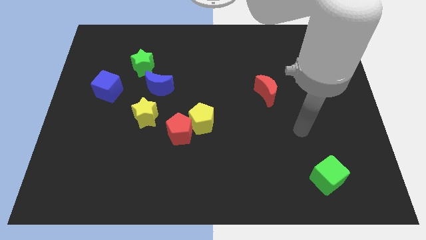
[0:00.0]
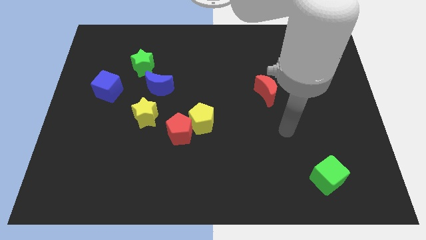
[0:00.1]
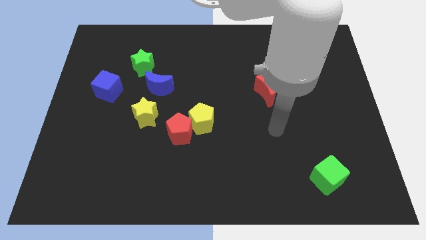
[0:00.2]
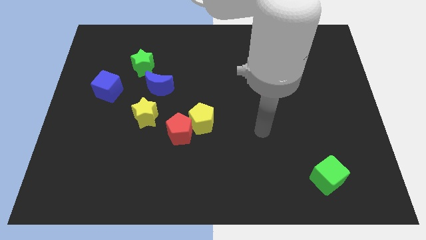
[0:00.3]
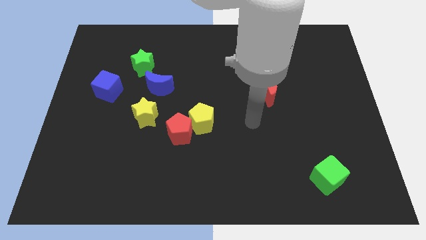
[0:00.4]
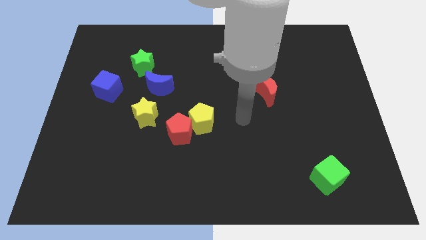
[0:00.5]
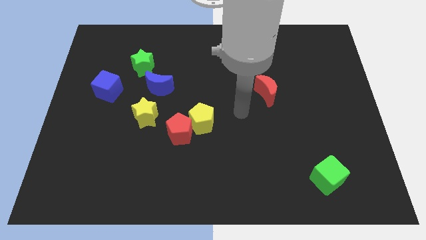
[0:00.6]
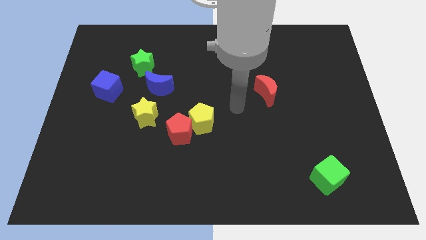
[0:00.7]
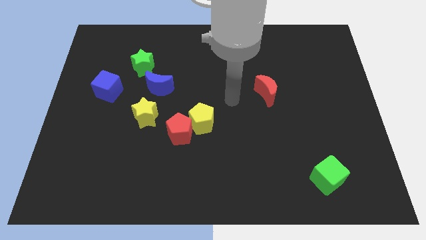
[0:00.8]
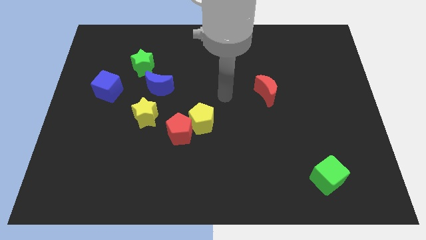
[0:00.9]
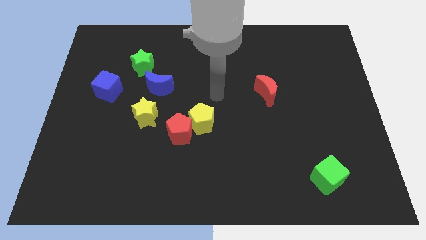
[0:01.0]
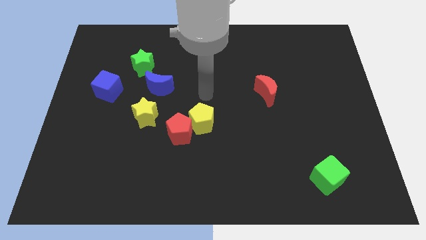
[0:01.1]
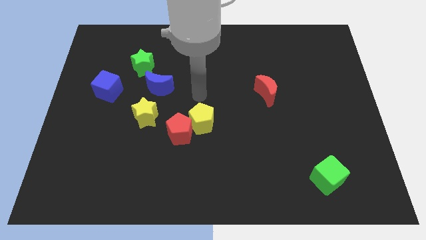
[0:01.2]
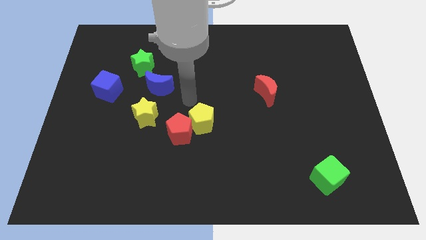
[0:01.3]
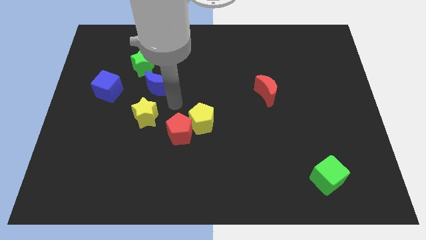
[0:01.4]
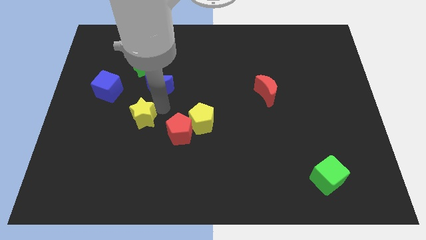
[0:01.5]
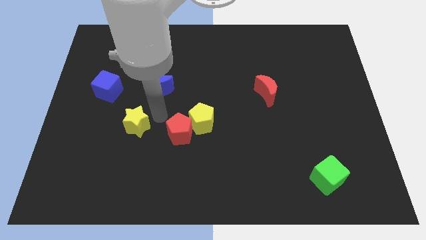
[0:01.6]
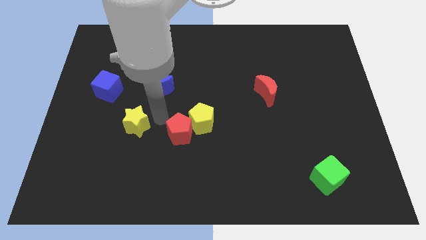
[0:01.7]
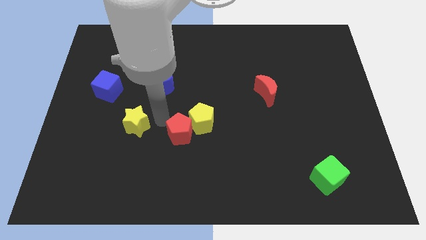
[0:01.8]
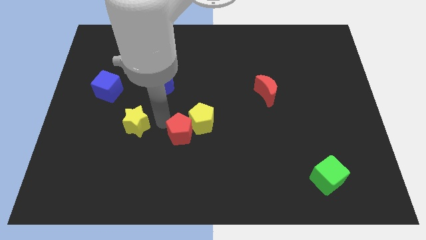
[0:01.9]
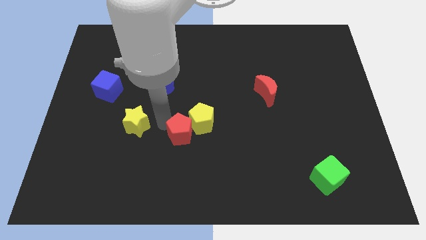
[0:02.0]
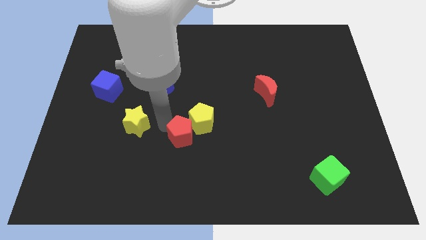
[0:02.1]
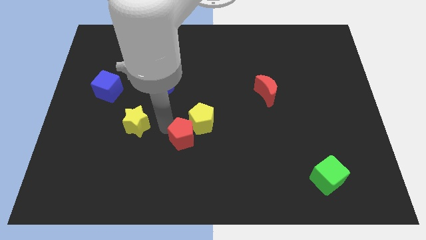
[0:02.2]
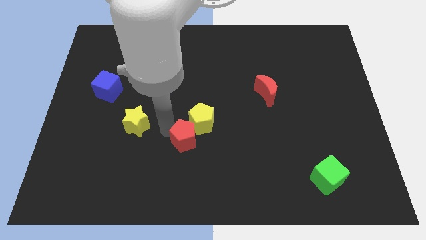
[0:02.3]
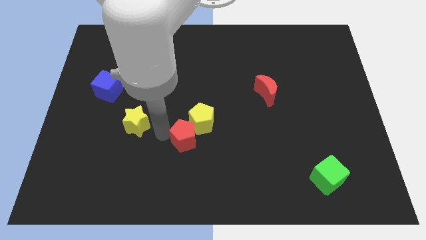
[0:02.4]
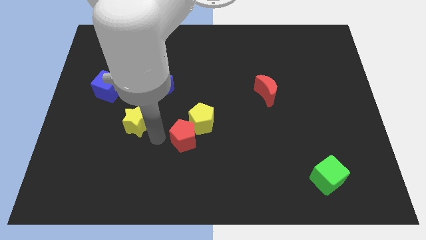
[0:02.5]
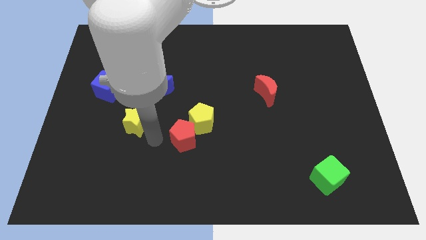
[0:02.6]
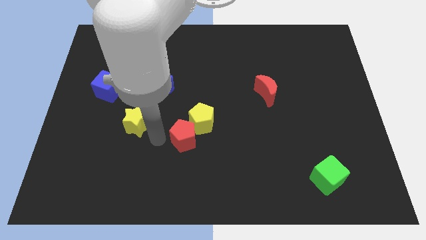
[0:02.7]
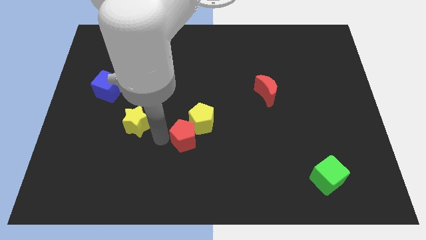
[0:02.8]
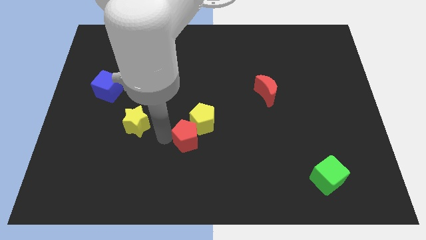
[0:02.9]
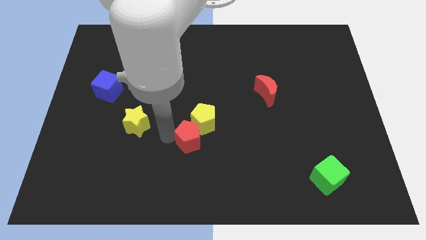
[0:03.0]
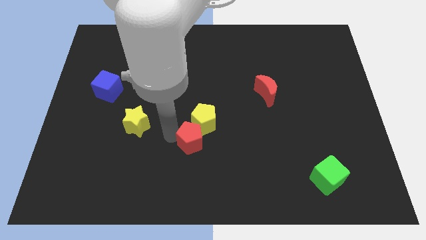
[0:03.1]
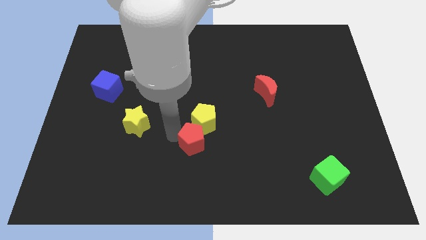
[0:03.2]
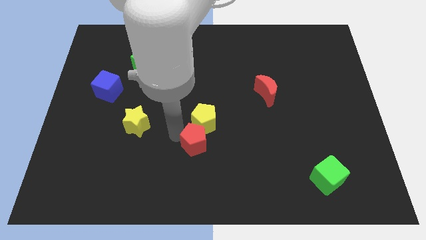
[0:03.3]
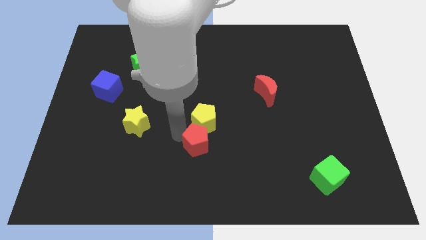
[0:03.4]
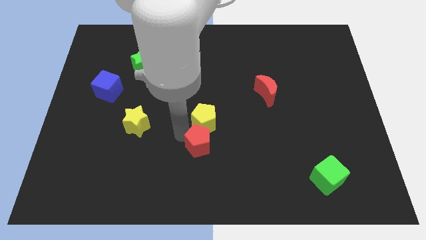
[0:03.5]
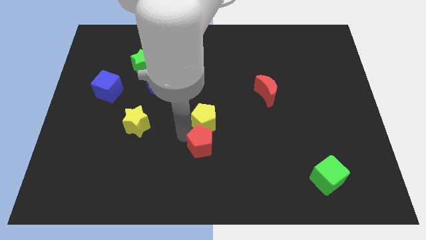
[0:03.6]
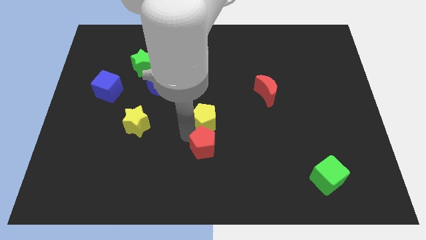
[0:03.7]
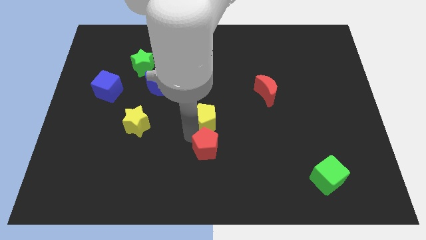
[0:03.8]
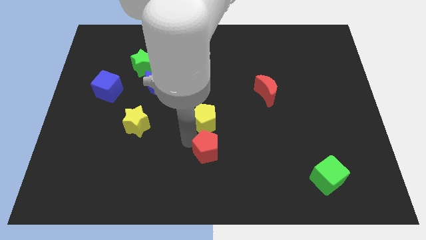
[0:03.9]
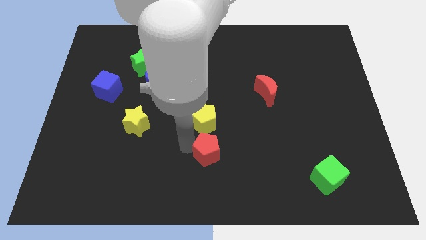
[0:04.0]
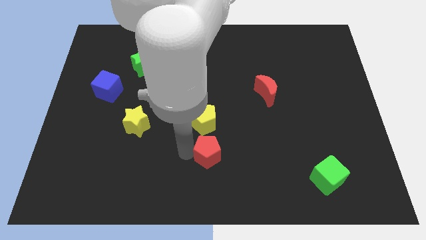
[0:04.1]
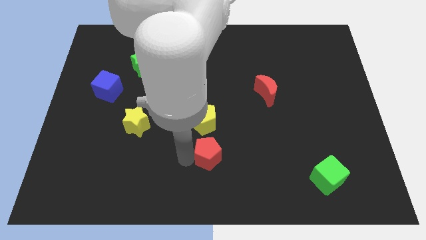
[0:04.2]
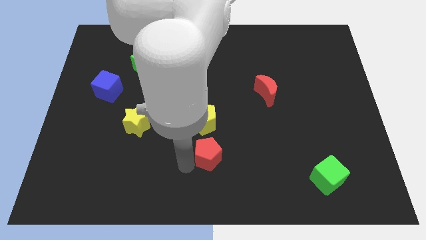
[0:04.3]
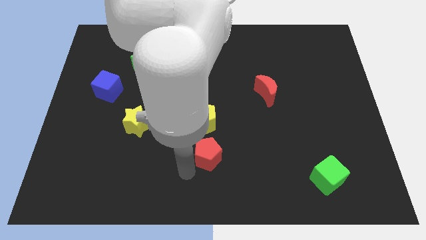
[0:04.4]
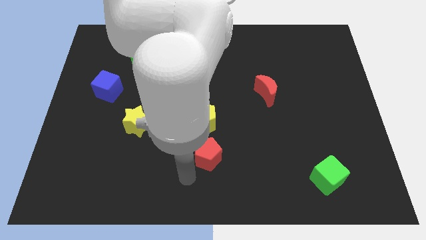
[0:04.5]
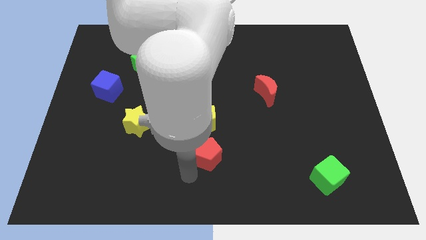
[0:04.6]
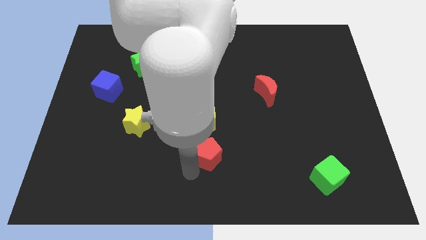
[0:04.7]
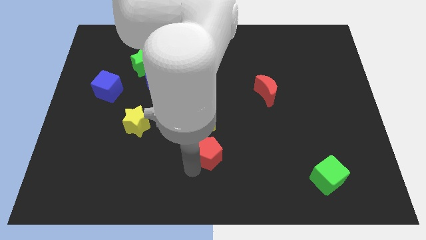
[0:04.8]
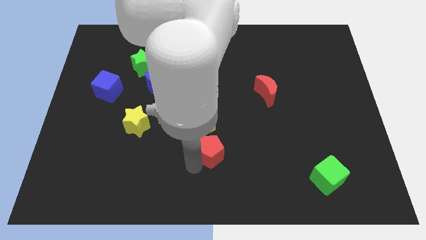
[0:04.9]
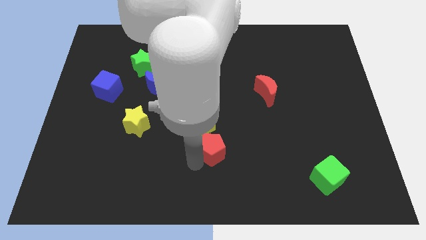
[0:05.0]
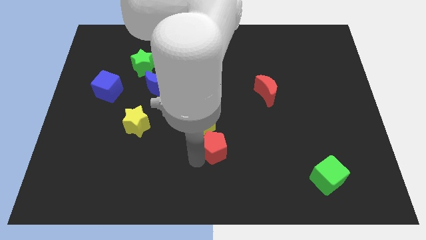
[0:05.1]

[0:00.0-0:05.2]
slightly slide the red pentagon right

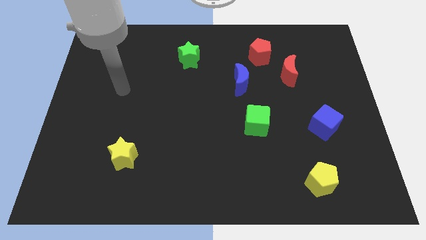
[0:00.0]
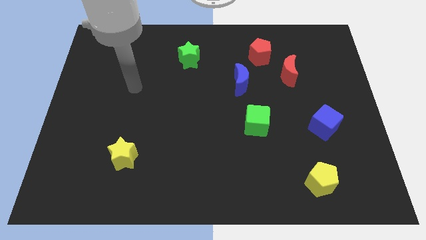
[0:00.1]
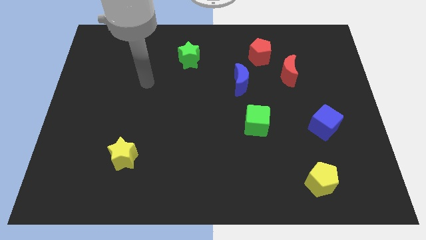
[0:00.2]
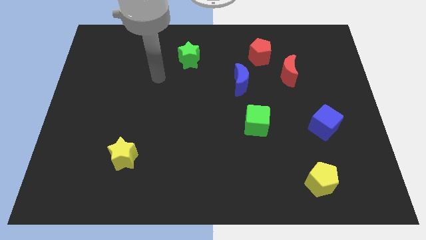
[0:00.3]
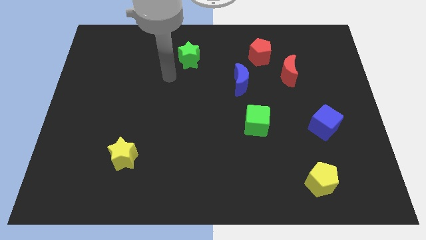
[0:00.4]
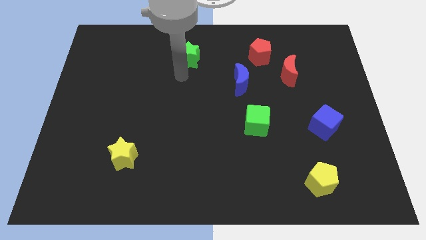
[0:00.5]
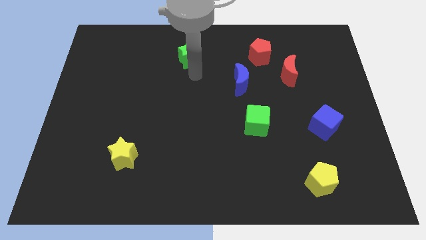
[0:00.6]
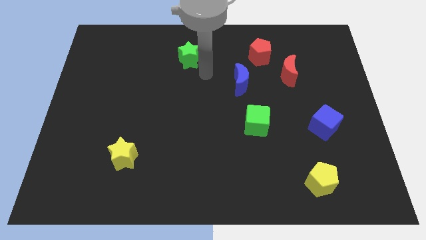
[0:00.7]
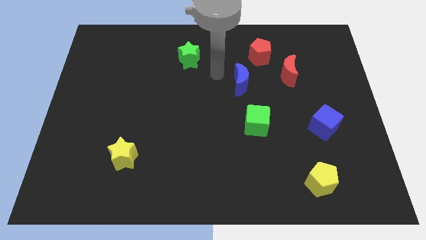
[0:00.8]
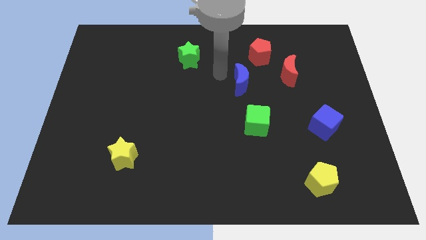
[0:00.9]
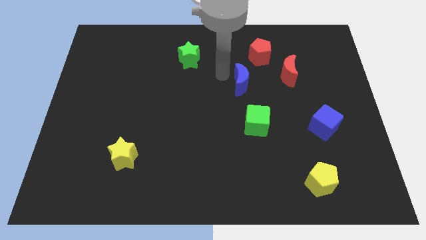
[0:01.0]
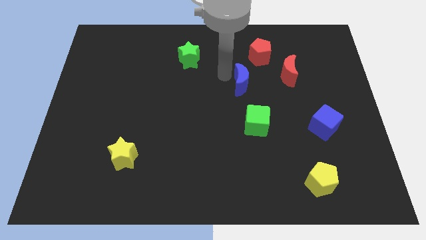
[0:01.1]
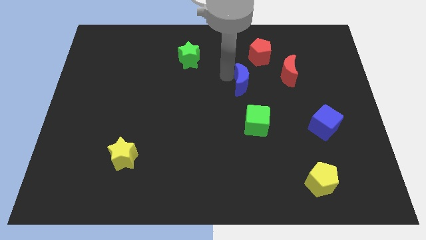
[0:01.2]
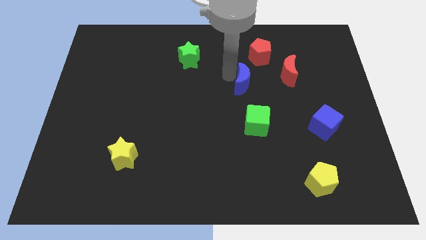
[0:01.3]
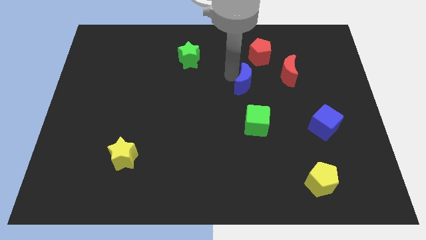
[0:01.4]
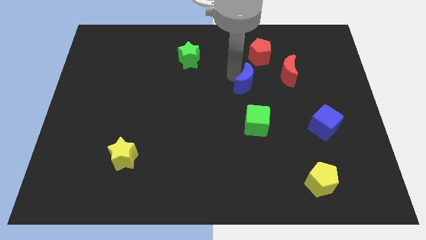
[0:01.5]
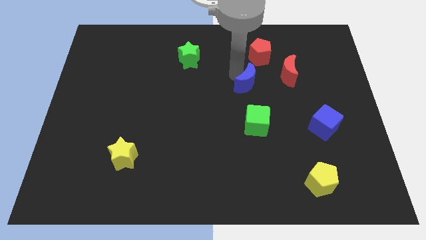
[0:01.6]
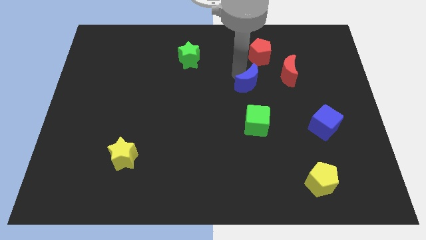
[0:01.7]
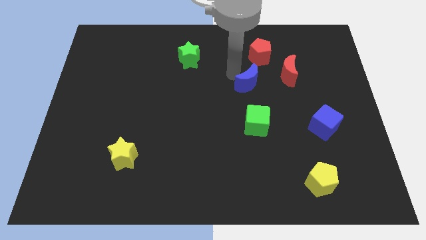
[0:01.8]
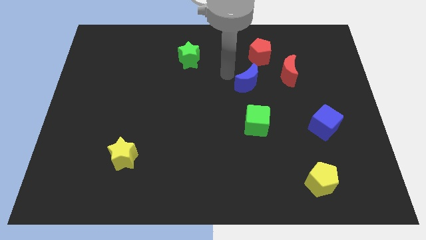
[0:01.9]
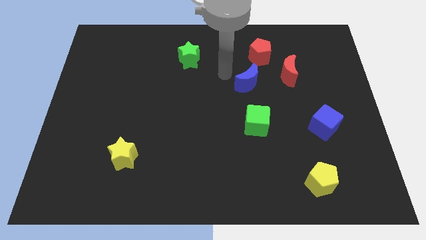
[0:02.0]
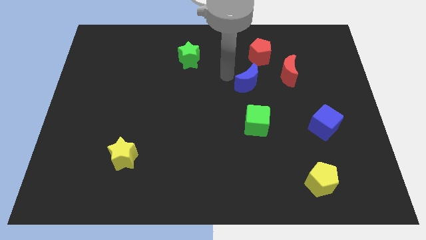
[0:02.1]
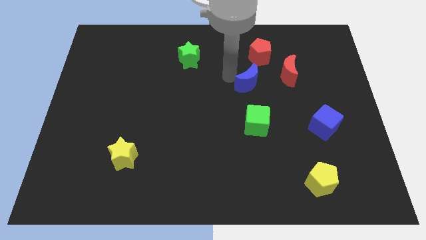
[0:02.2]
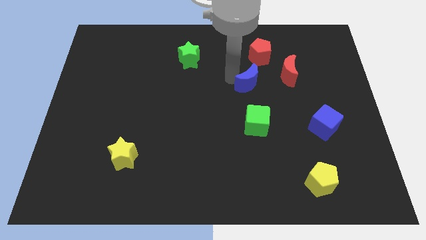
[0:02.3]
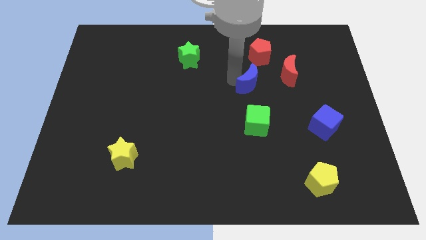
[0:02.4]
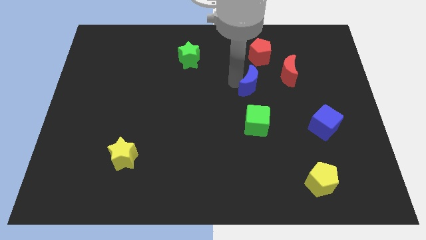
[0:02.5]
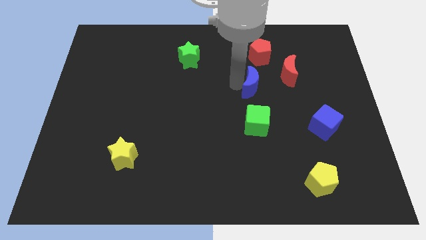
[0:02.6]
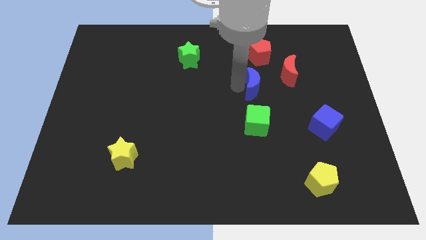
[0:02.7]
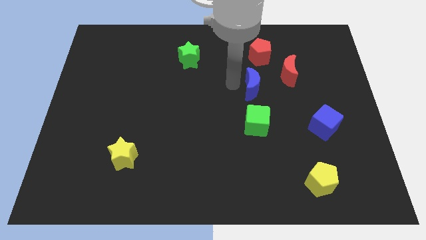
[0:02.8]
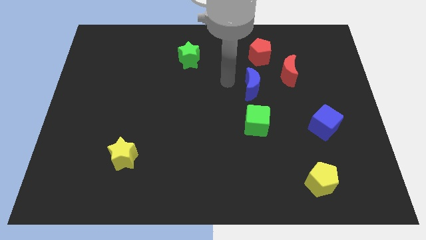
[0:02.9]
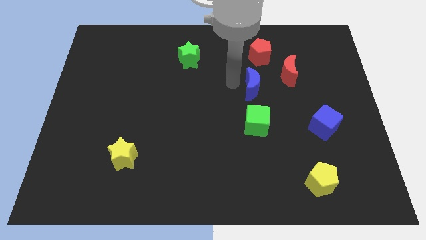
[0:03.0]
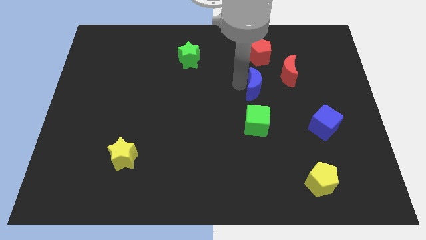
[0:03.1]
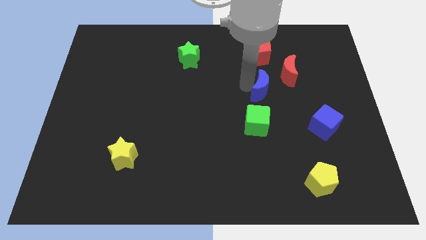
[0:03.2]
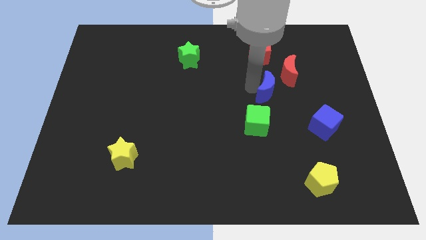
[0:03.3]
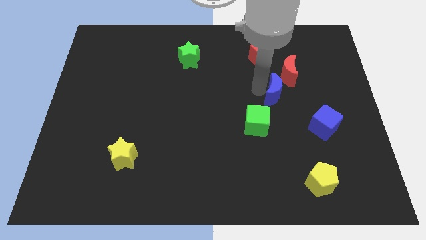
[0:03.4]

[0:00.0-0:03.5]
slightly push the blue moon right
